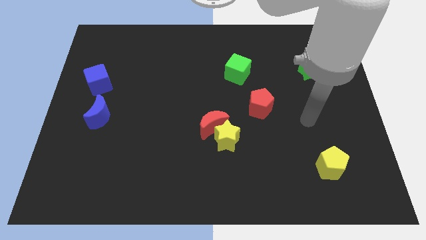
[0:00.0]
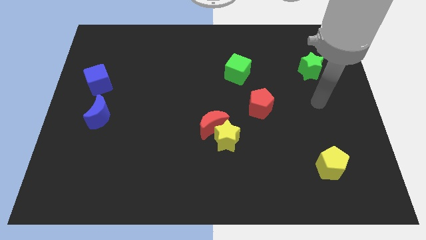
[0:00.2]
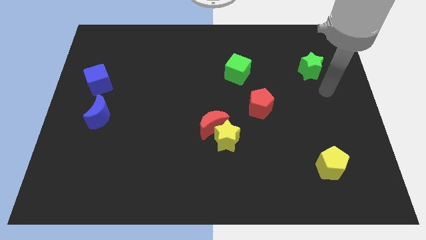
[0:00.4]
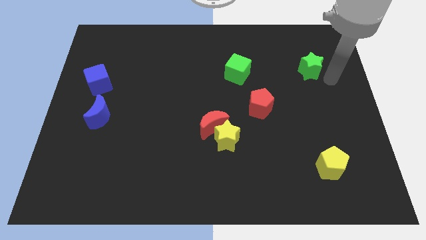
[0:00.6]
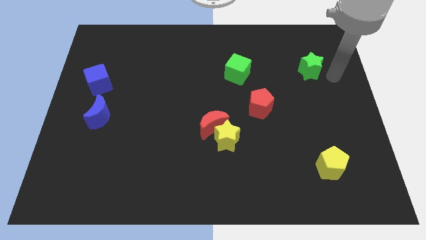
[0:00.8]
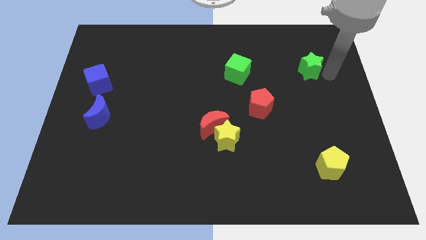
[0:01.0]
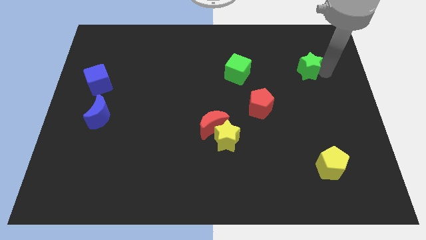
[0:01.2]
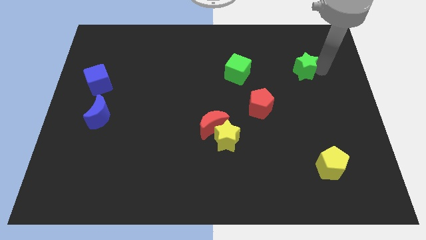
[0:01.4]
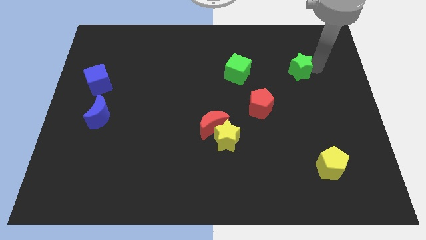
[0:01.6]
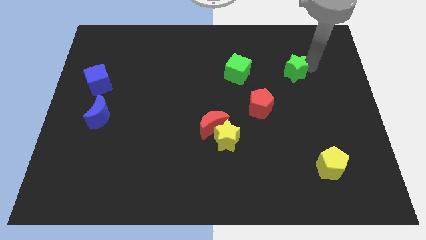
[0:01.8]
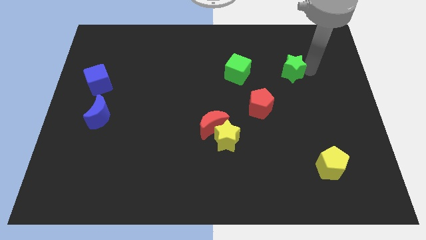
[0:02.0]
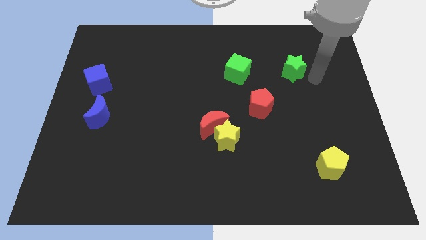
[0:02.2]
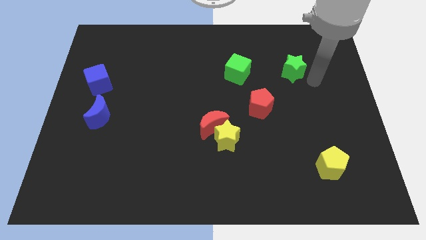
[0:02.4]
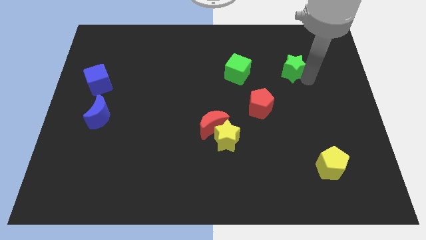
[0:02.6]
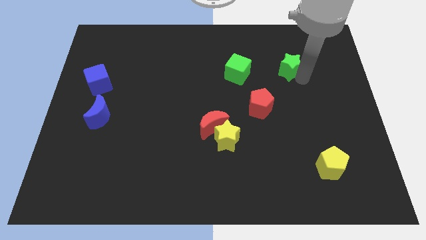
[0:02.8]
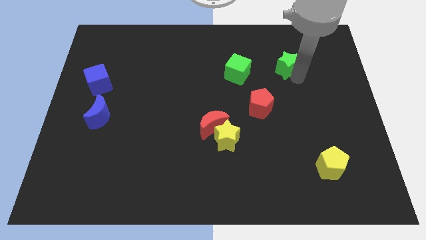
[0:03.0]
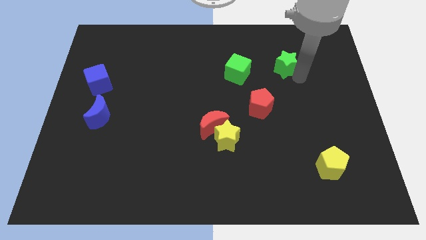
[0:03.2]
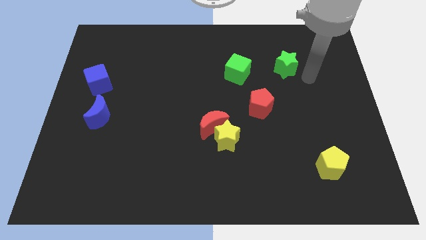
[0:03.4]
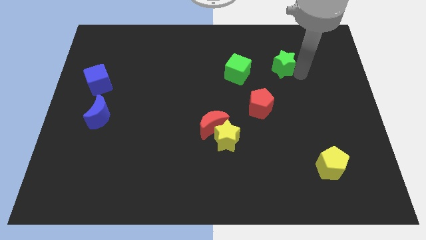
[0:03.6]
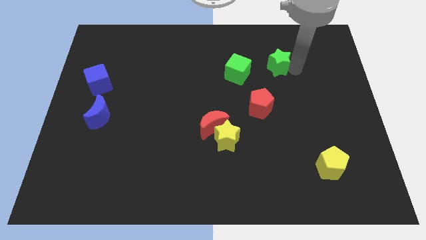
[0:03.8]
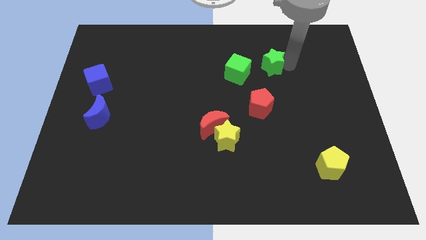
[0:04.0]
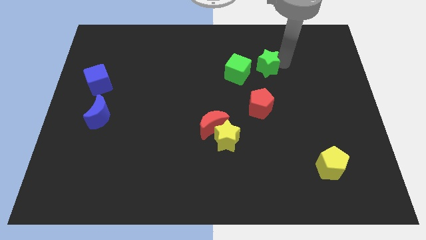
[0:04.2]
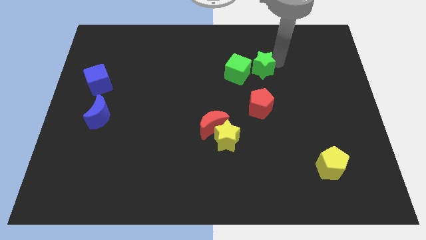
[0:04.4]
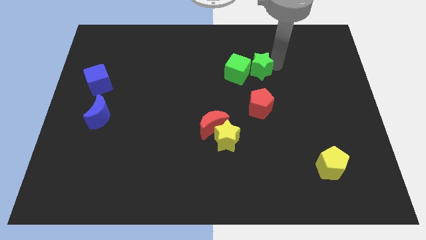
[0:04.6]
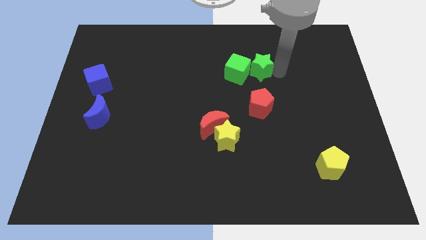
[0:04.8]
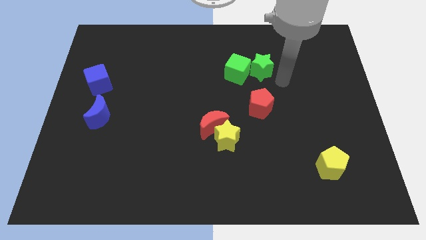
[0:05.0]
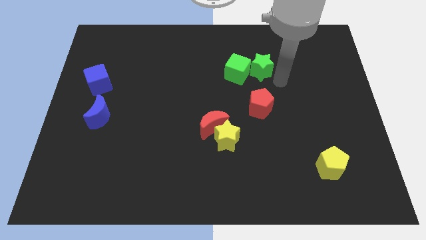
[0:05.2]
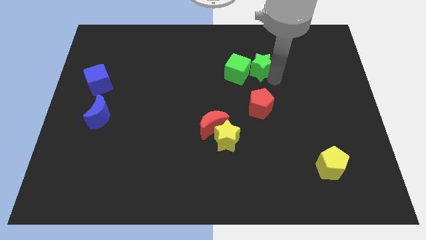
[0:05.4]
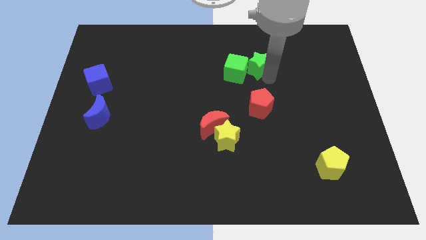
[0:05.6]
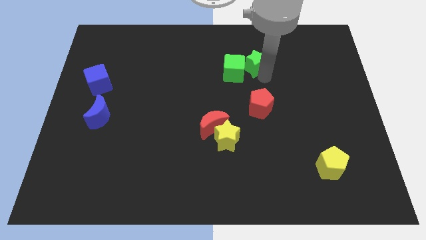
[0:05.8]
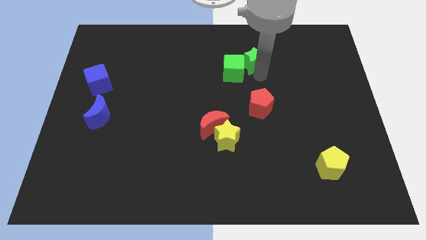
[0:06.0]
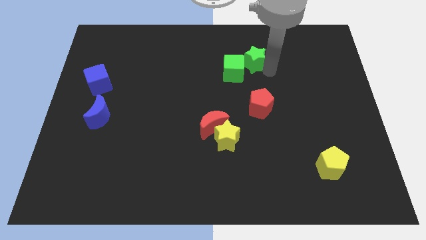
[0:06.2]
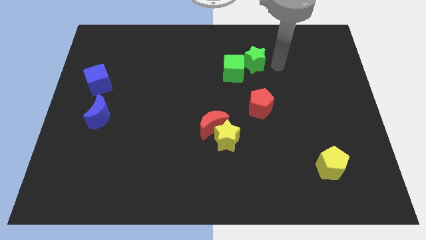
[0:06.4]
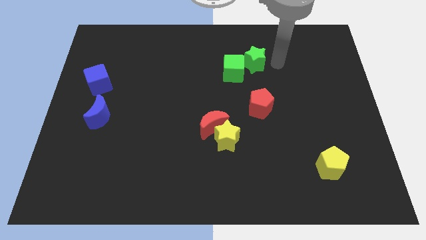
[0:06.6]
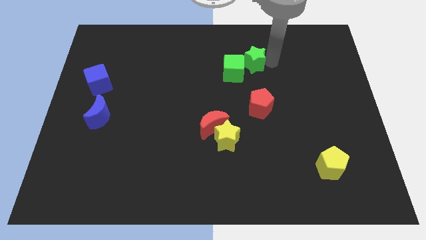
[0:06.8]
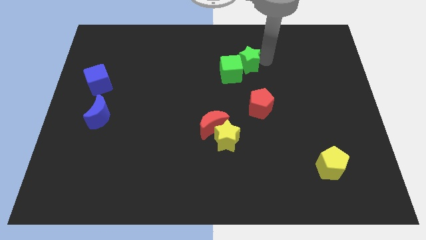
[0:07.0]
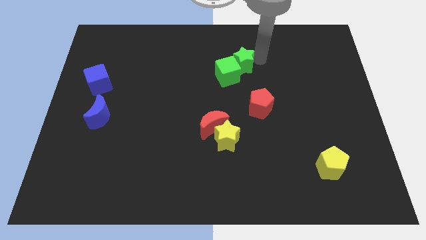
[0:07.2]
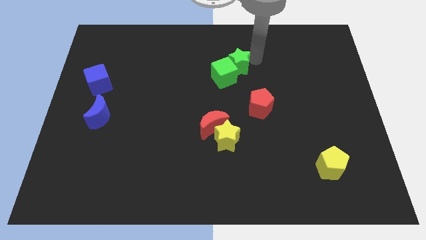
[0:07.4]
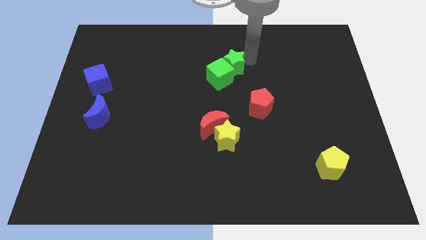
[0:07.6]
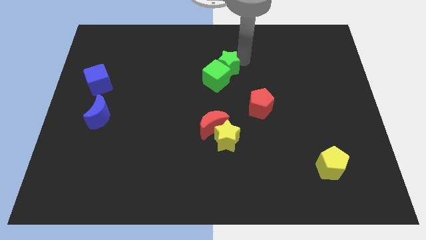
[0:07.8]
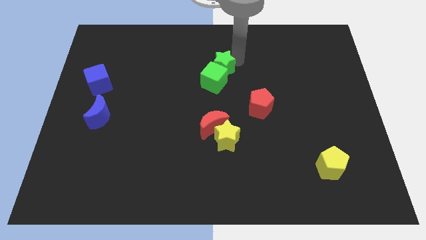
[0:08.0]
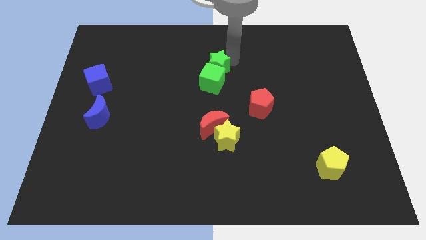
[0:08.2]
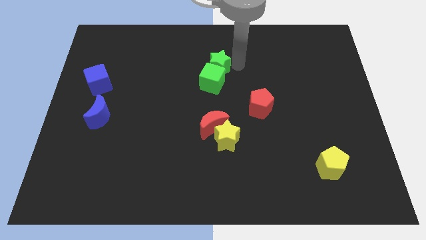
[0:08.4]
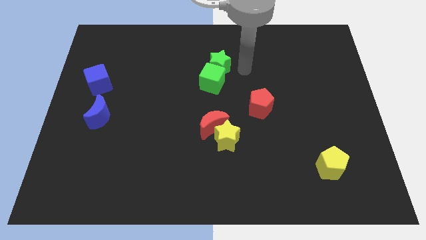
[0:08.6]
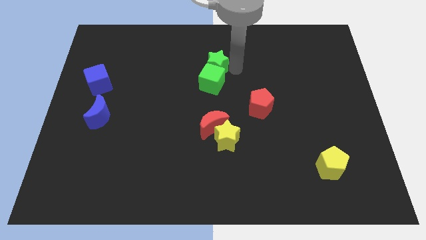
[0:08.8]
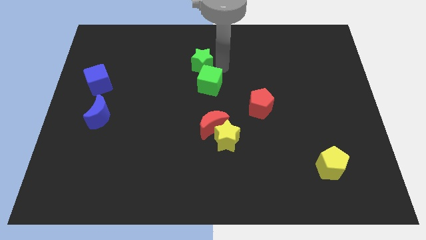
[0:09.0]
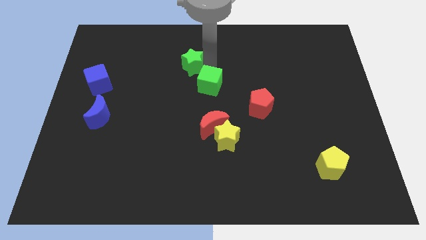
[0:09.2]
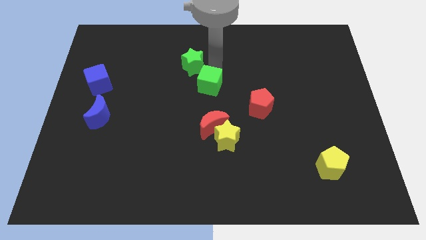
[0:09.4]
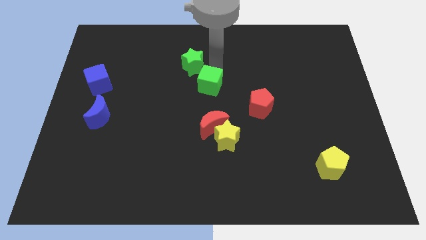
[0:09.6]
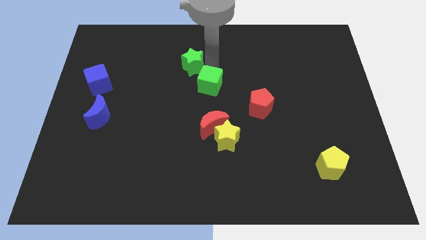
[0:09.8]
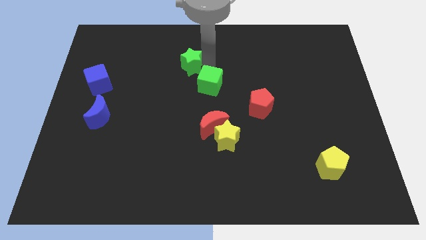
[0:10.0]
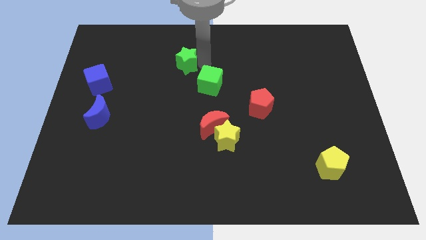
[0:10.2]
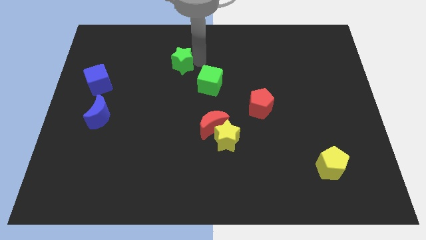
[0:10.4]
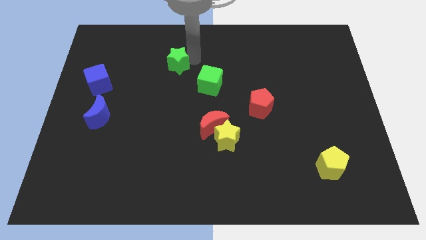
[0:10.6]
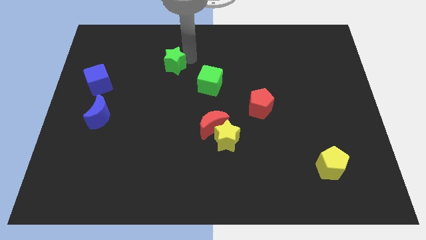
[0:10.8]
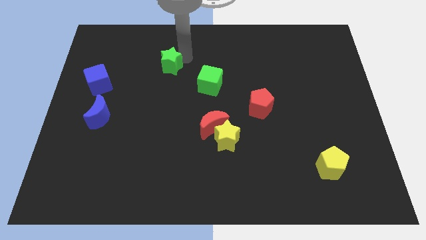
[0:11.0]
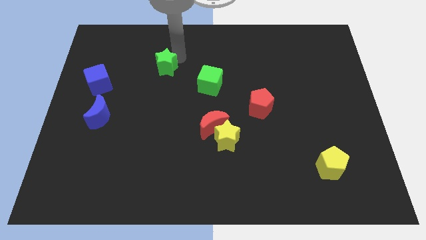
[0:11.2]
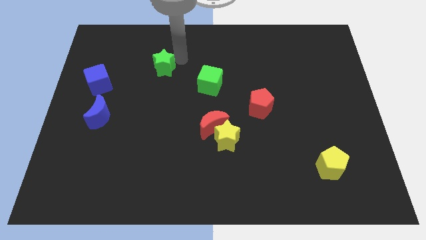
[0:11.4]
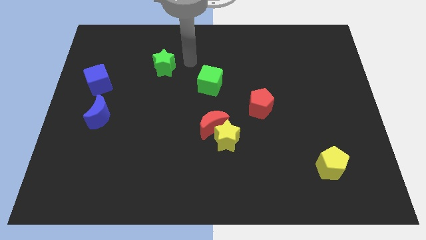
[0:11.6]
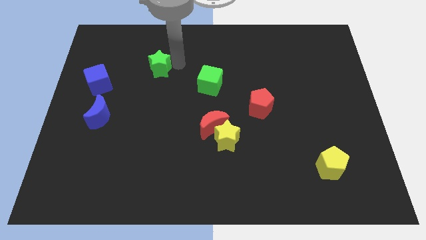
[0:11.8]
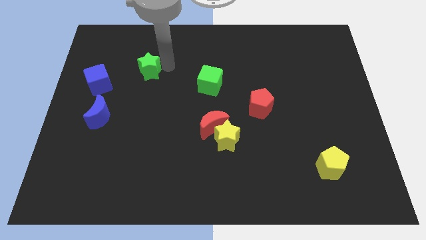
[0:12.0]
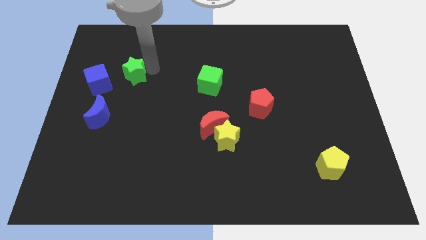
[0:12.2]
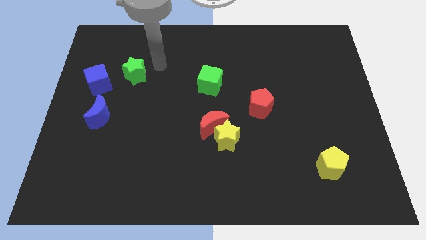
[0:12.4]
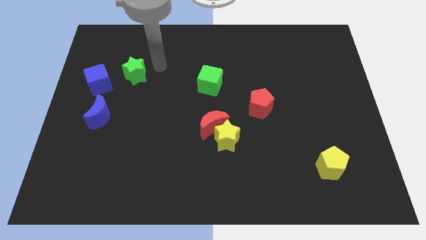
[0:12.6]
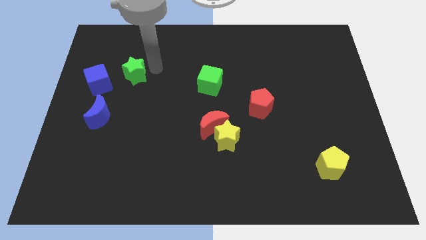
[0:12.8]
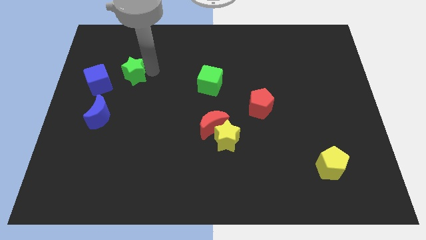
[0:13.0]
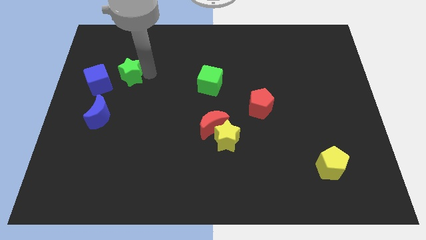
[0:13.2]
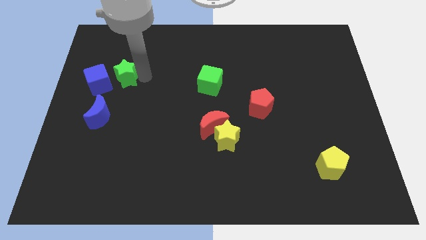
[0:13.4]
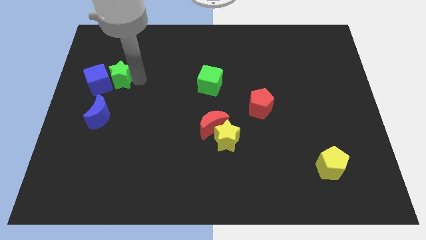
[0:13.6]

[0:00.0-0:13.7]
push the green star next to the blue cube
